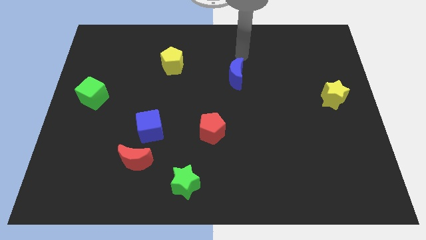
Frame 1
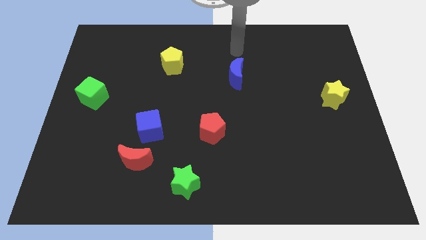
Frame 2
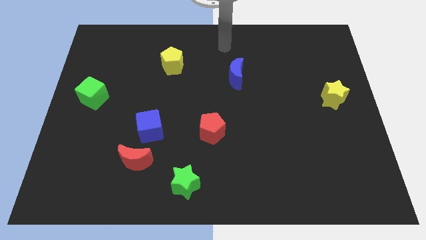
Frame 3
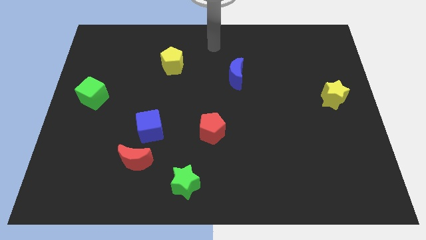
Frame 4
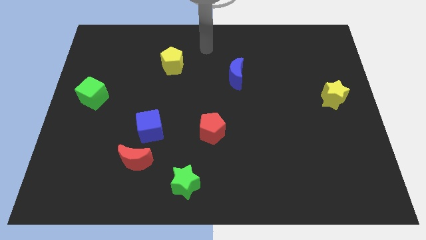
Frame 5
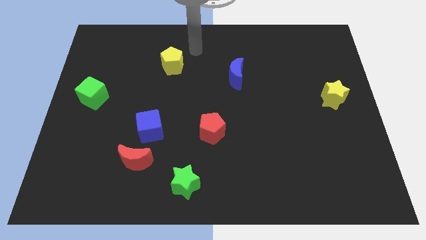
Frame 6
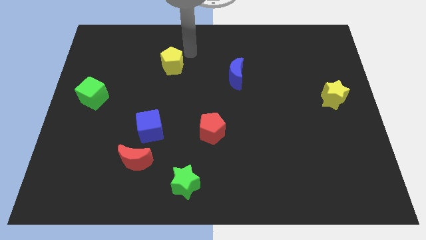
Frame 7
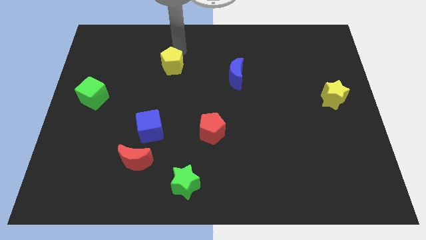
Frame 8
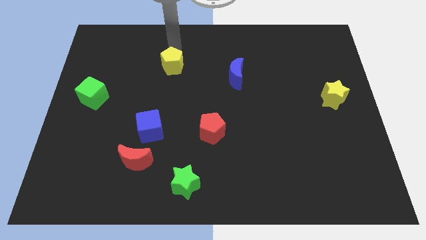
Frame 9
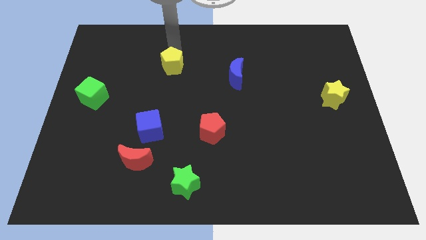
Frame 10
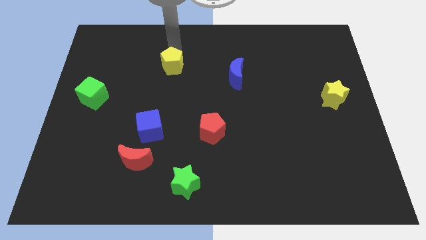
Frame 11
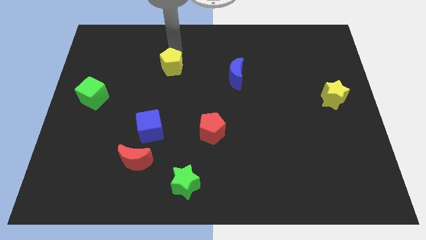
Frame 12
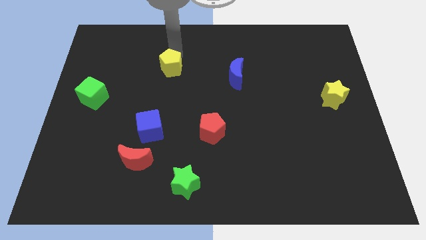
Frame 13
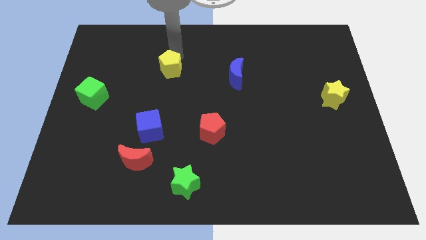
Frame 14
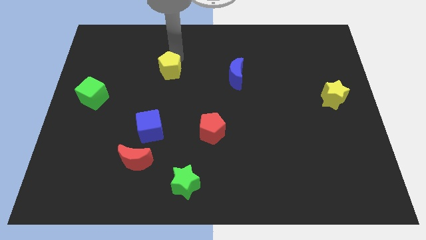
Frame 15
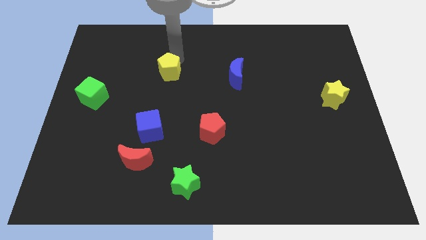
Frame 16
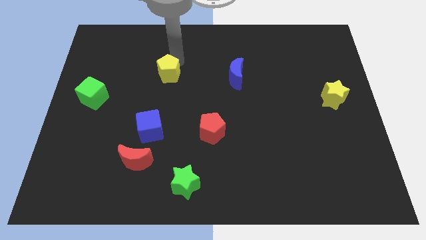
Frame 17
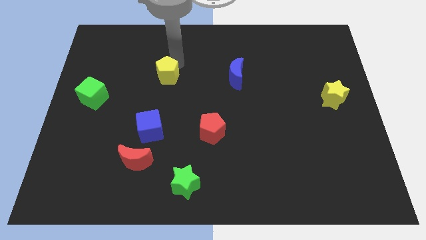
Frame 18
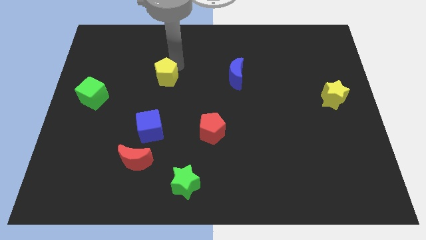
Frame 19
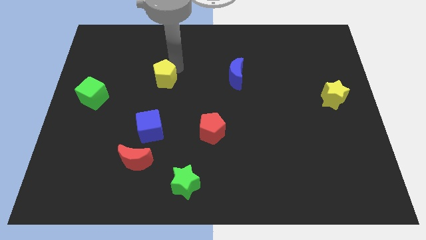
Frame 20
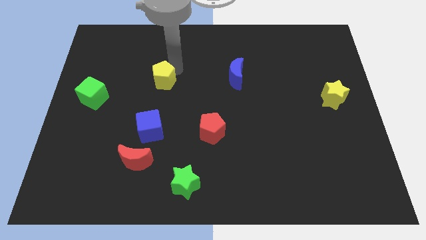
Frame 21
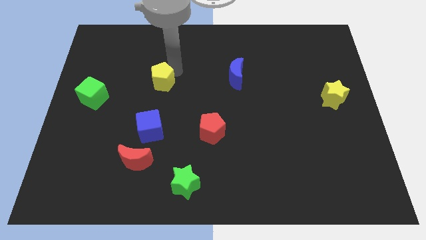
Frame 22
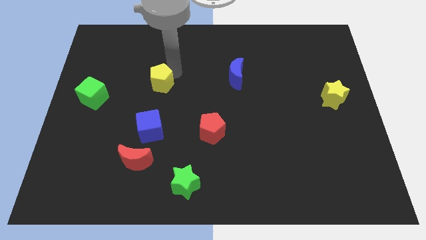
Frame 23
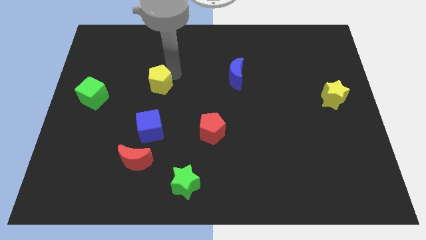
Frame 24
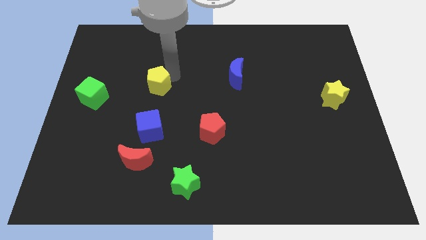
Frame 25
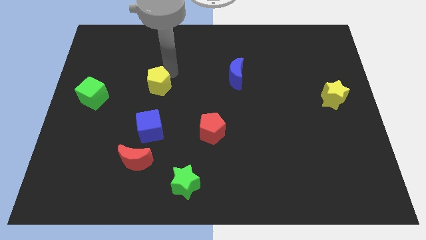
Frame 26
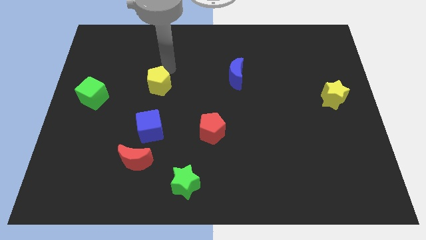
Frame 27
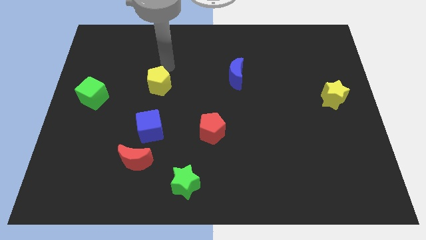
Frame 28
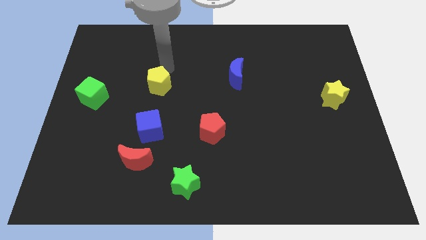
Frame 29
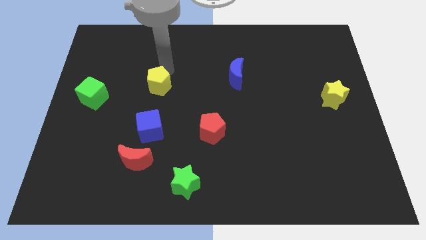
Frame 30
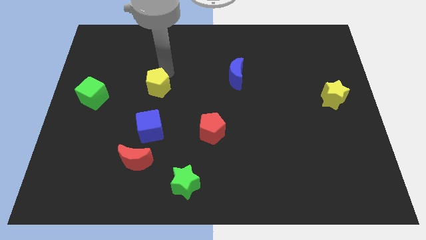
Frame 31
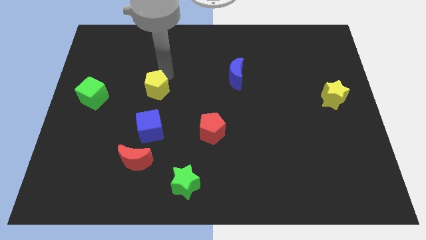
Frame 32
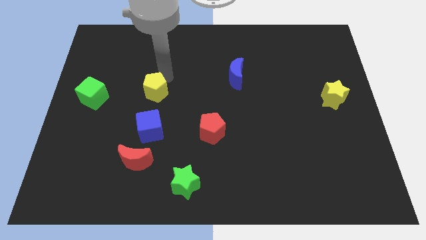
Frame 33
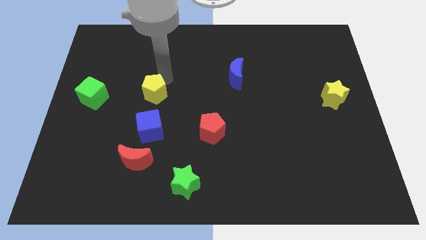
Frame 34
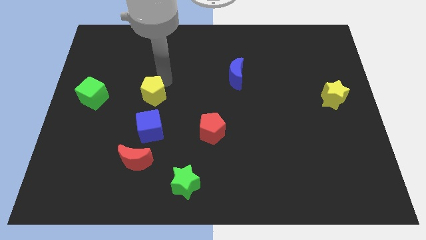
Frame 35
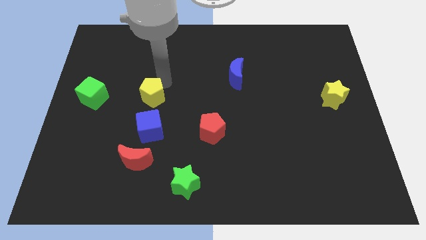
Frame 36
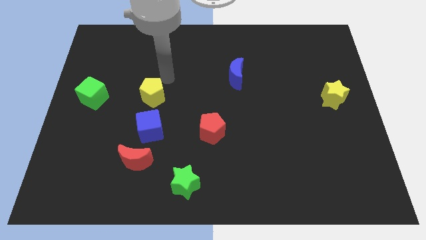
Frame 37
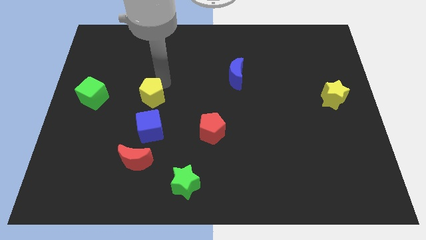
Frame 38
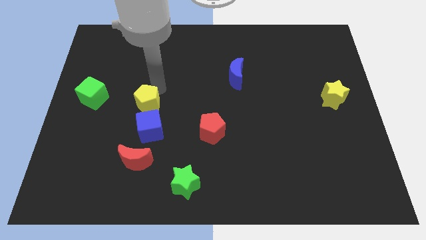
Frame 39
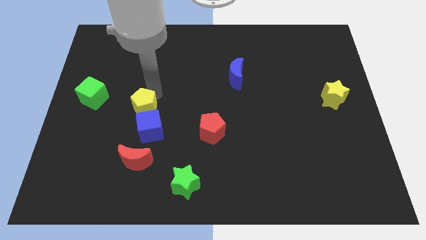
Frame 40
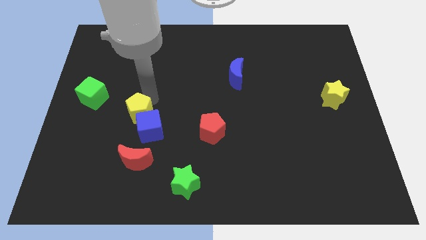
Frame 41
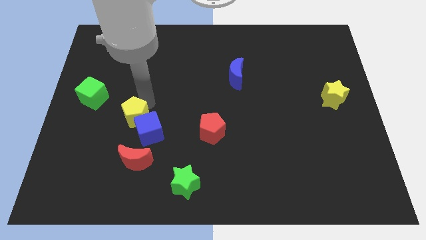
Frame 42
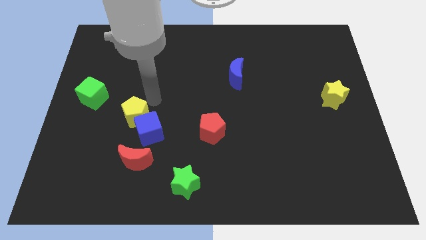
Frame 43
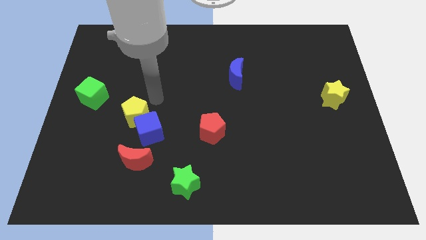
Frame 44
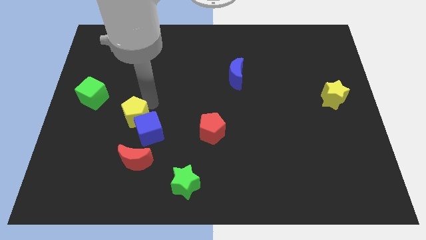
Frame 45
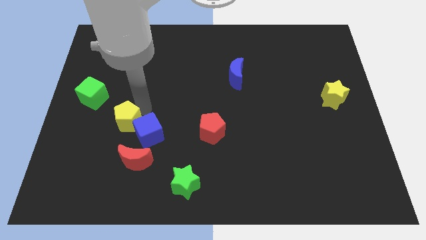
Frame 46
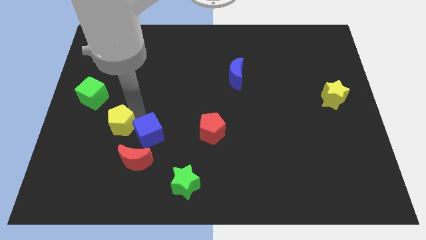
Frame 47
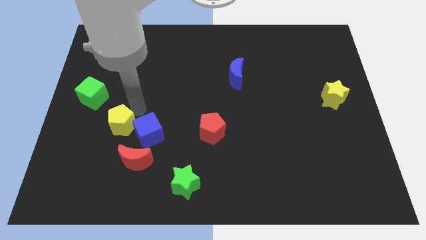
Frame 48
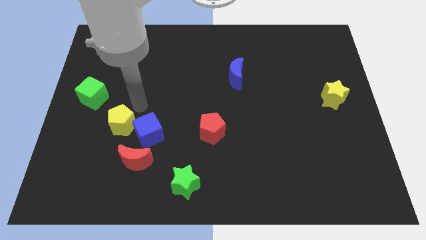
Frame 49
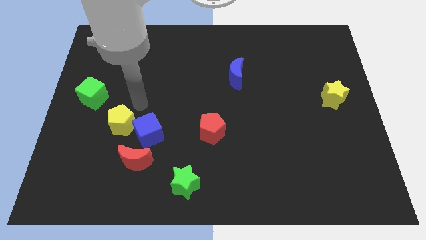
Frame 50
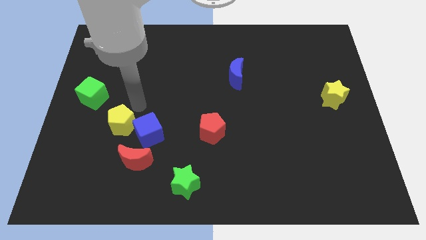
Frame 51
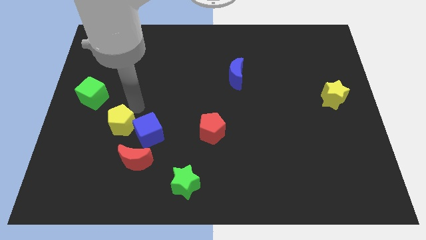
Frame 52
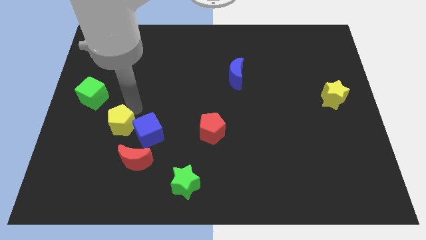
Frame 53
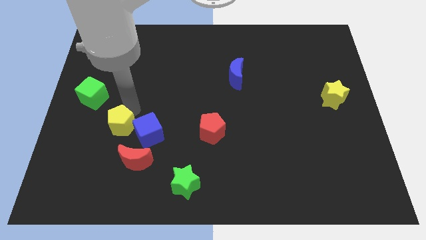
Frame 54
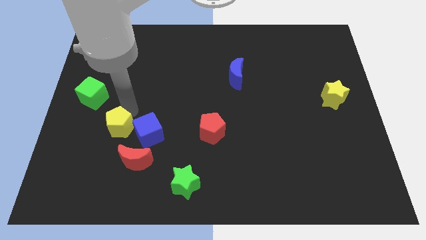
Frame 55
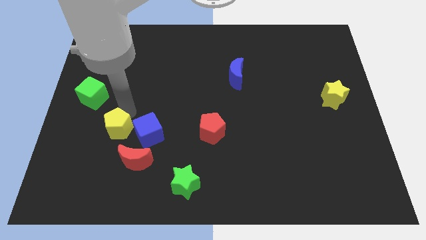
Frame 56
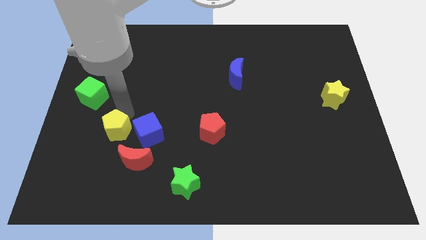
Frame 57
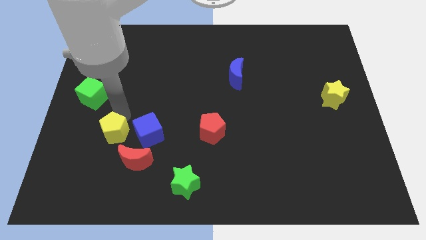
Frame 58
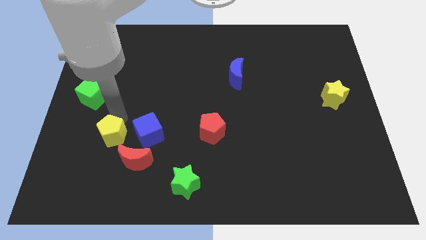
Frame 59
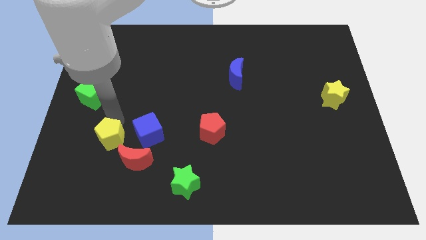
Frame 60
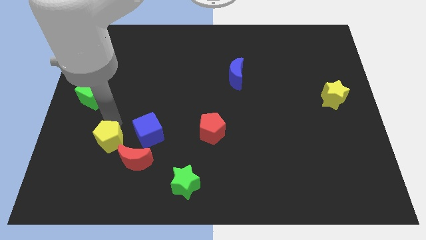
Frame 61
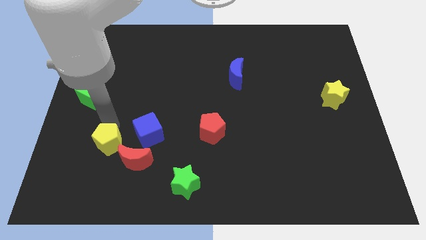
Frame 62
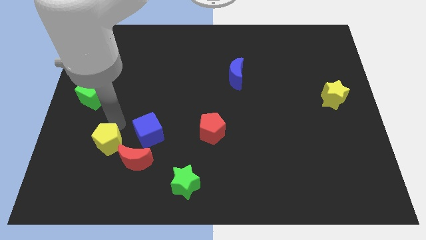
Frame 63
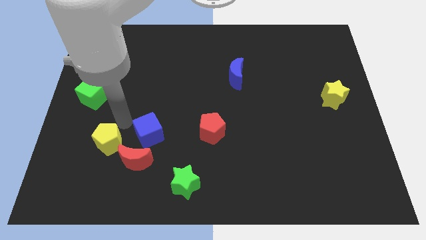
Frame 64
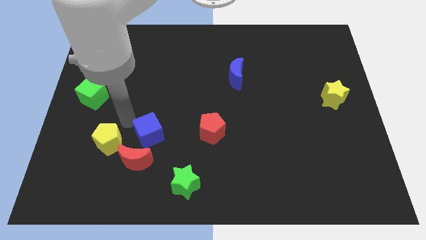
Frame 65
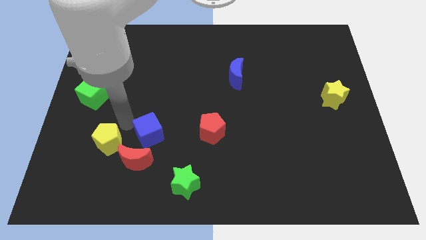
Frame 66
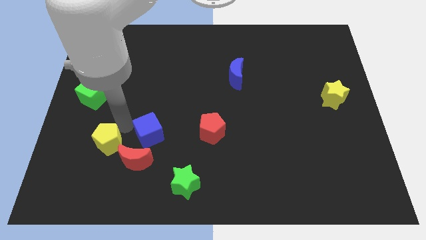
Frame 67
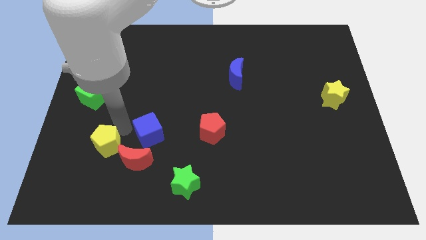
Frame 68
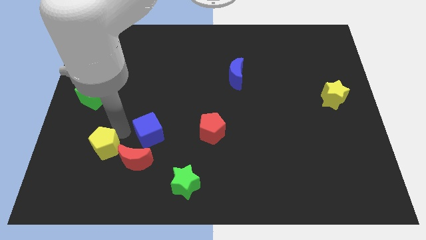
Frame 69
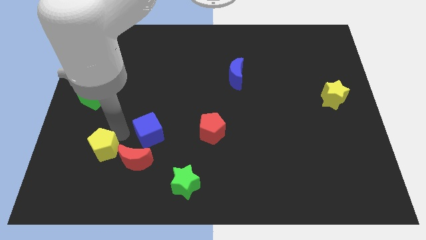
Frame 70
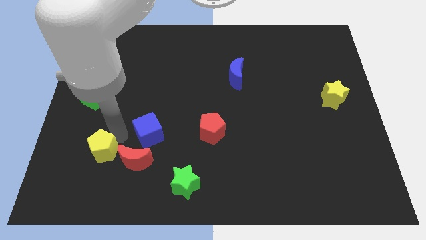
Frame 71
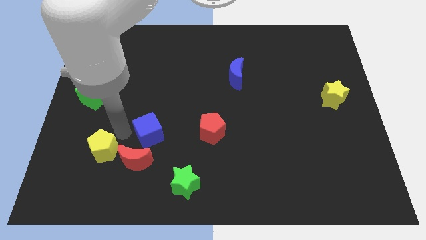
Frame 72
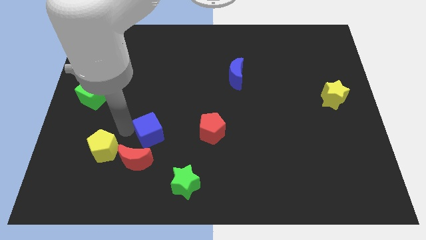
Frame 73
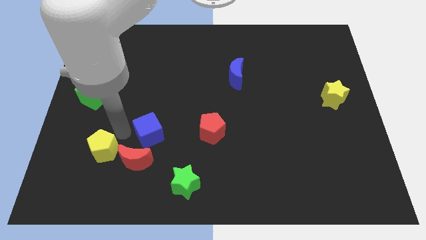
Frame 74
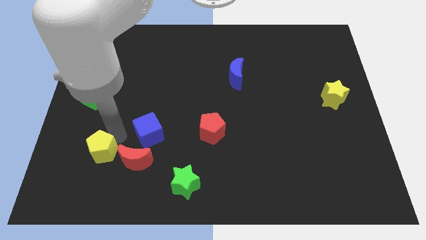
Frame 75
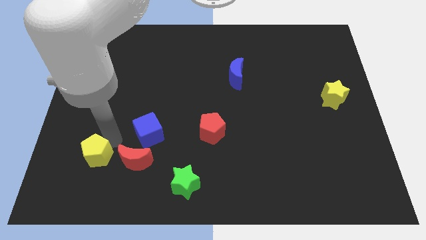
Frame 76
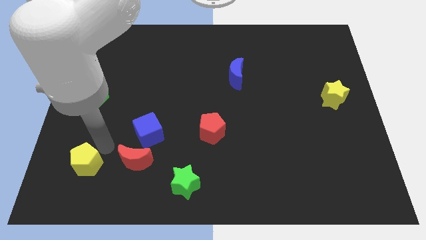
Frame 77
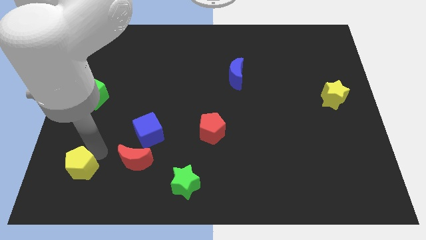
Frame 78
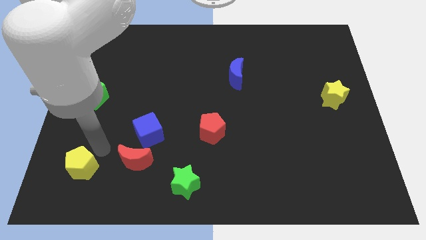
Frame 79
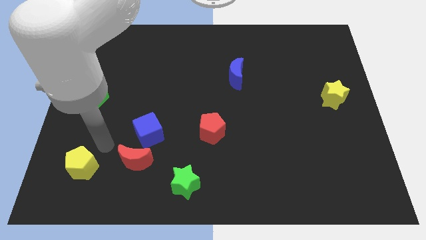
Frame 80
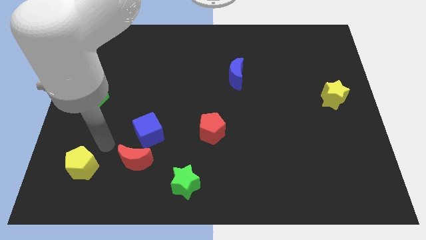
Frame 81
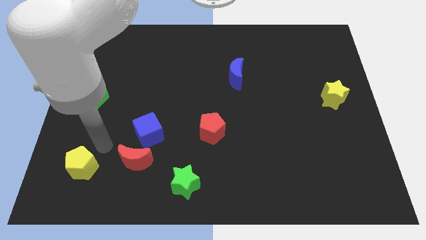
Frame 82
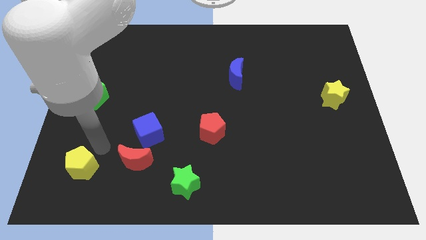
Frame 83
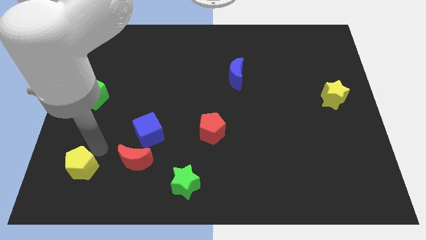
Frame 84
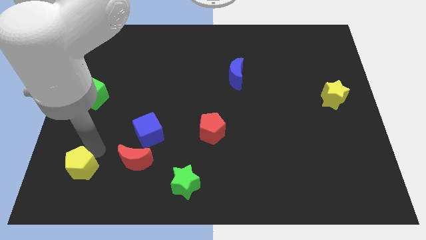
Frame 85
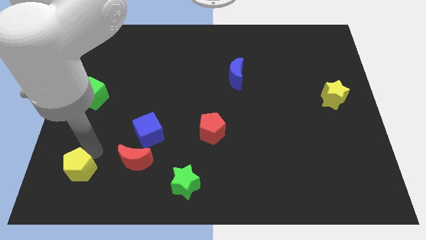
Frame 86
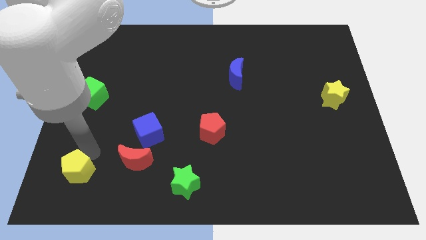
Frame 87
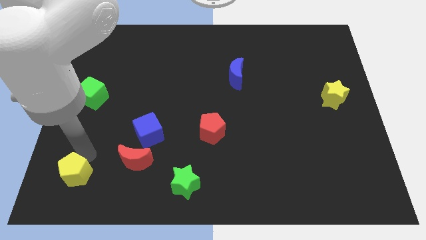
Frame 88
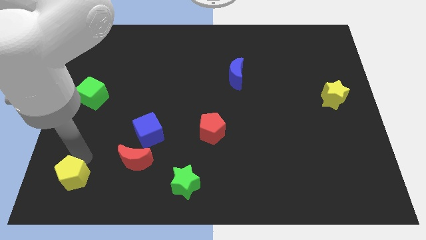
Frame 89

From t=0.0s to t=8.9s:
put the yellow pentagon to the bottom left
